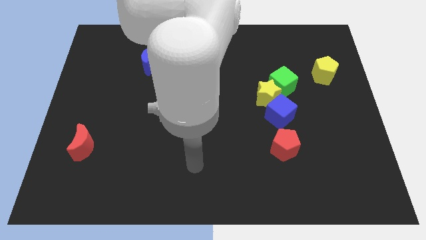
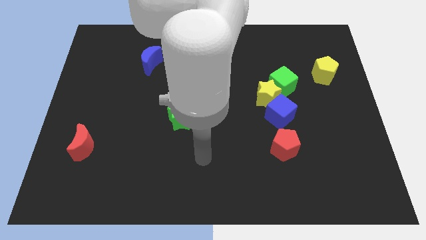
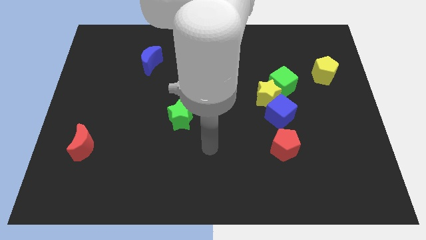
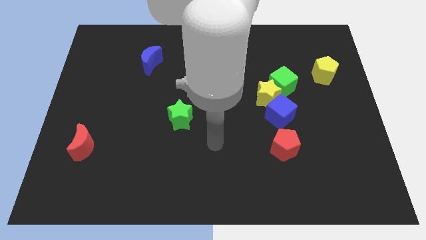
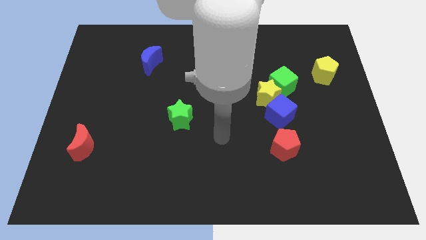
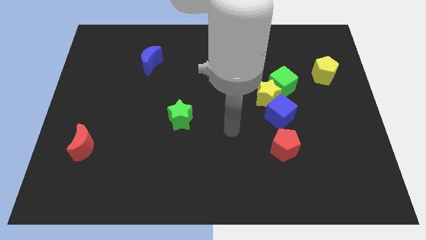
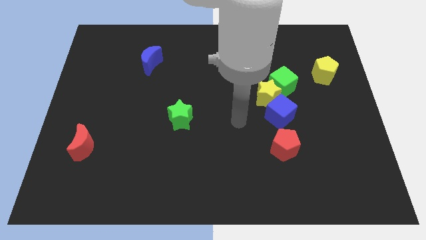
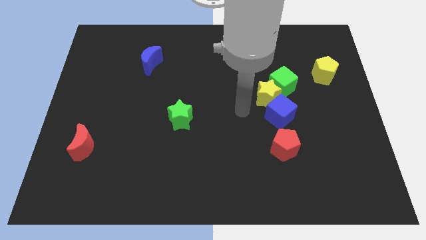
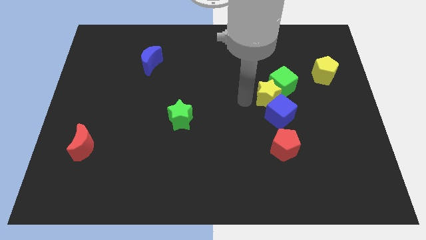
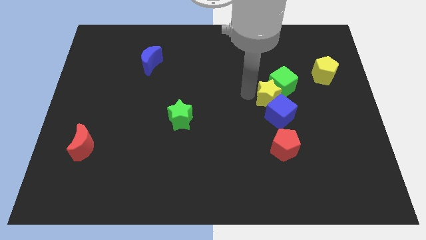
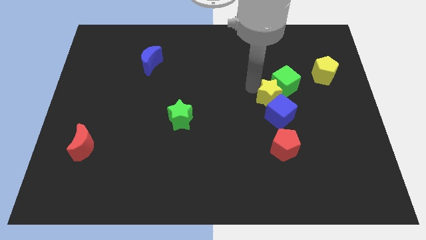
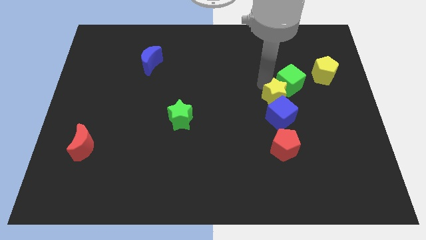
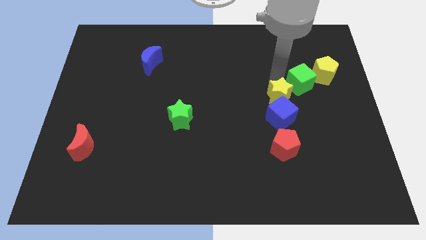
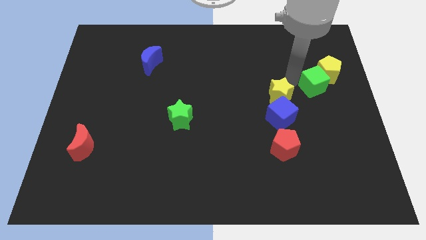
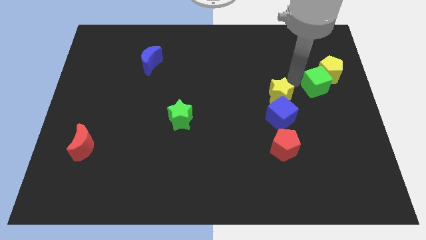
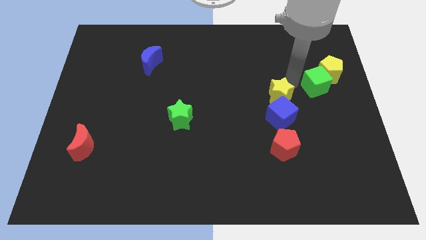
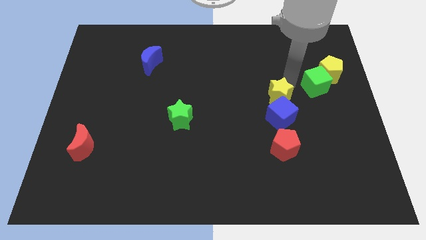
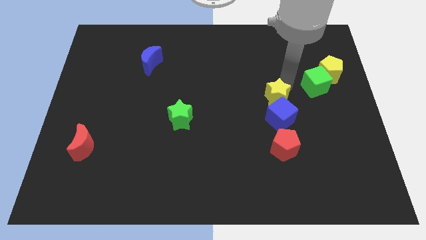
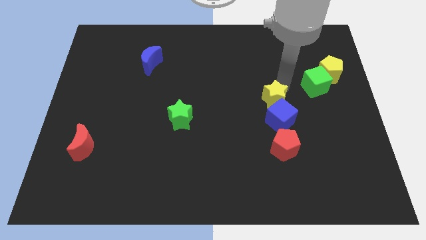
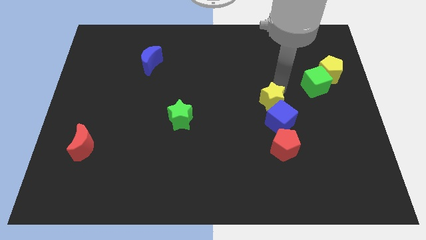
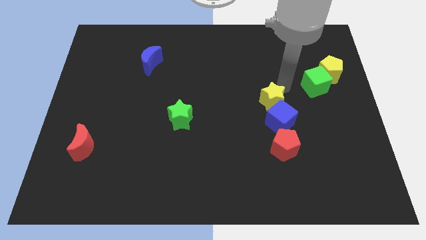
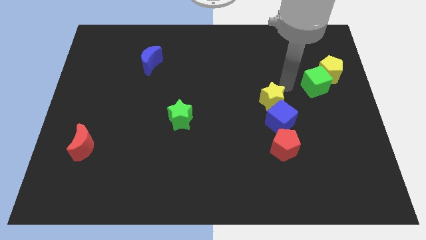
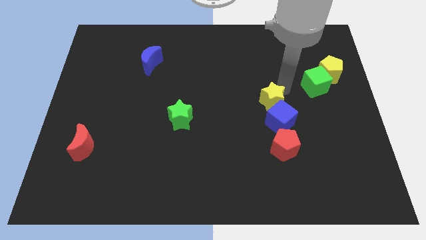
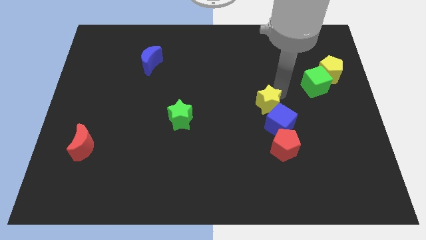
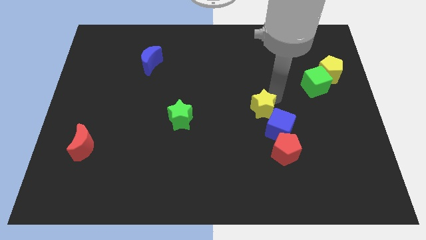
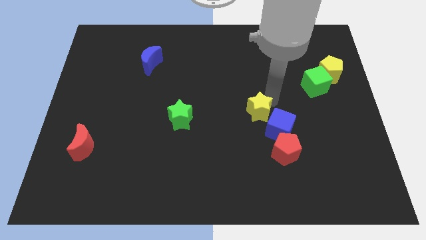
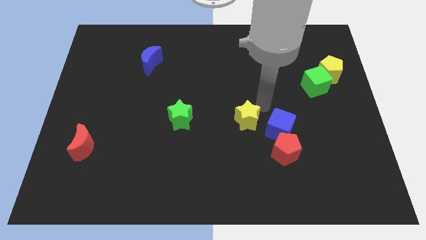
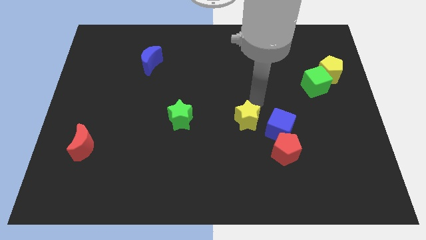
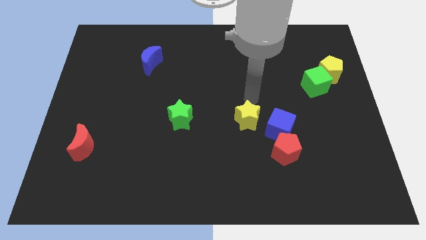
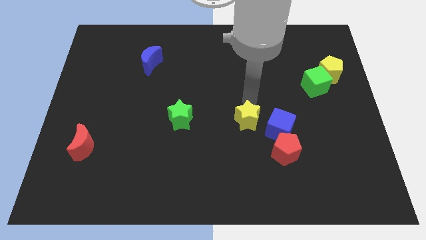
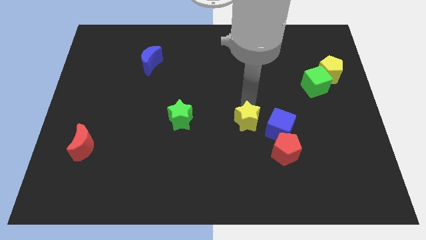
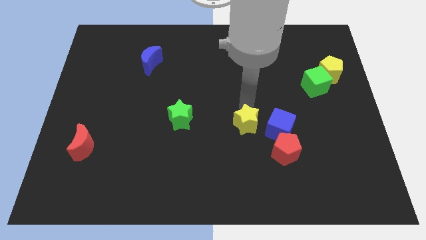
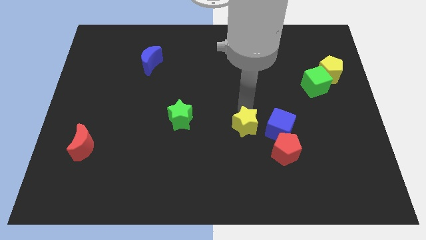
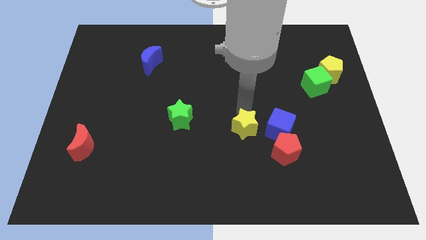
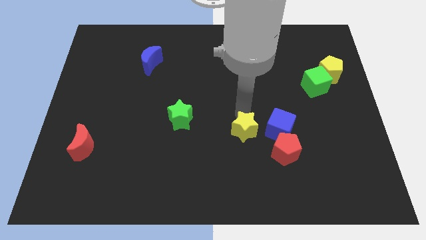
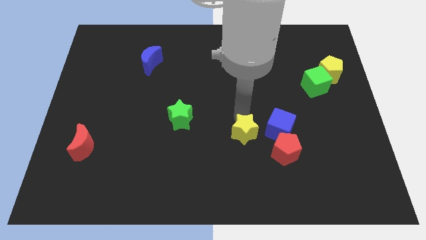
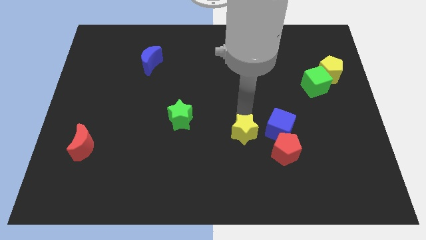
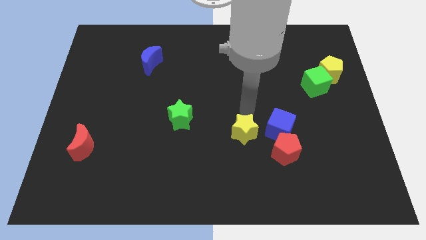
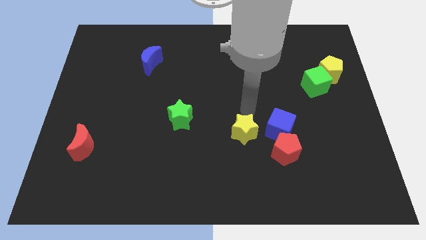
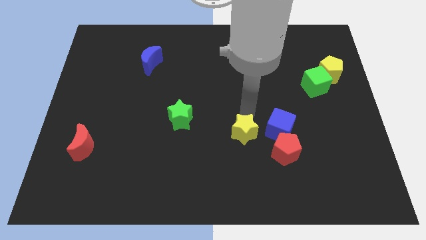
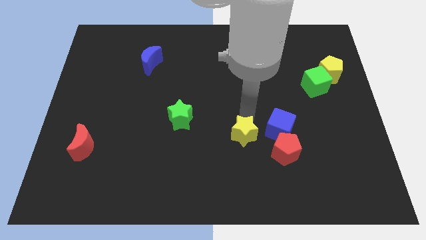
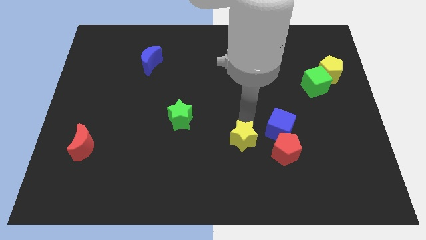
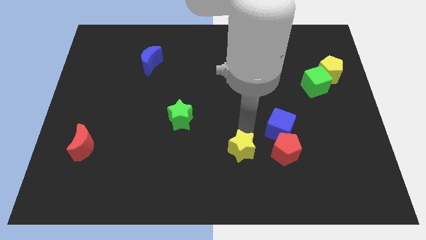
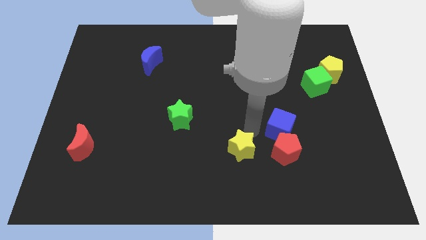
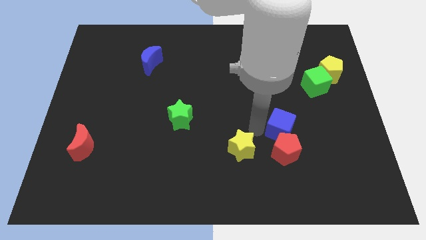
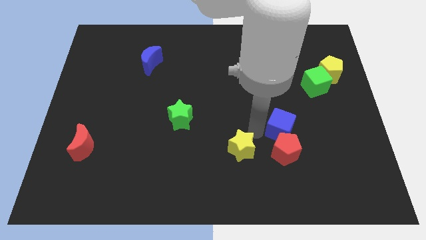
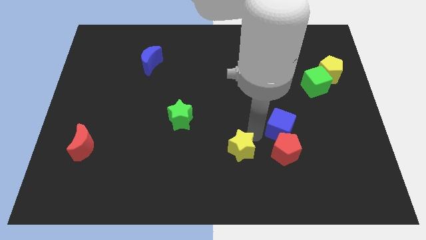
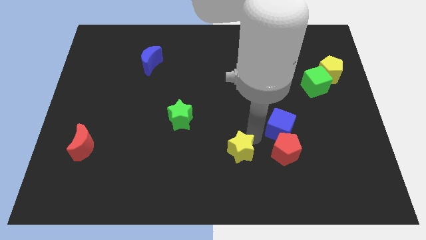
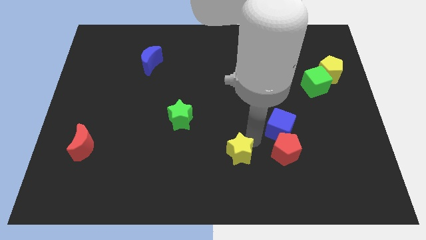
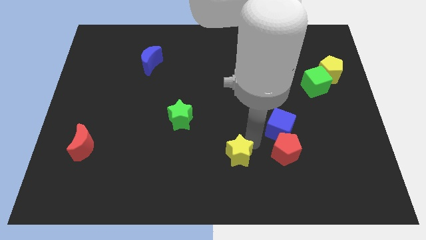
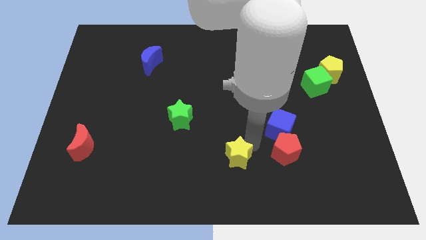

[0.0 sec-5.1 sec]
put the yellow star to the bottom

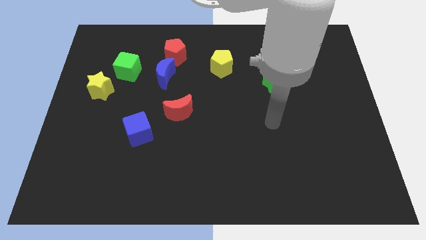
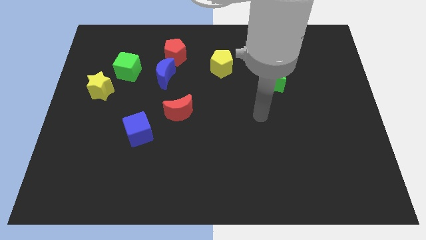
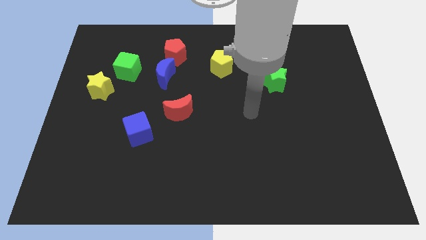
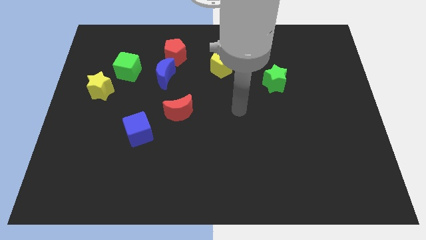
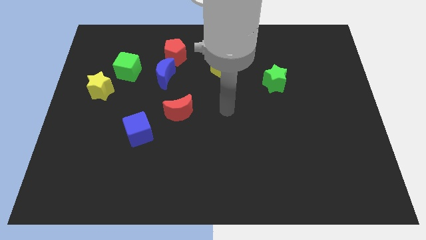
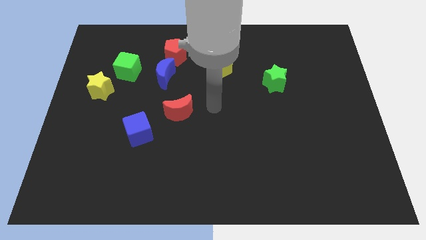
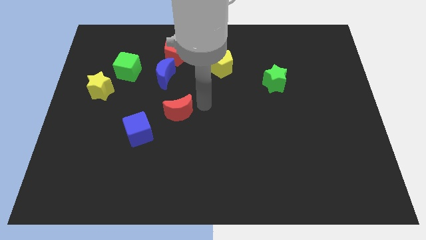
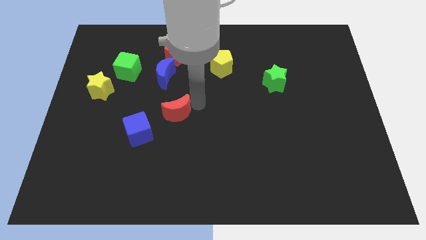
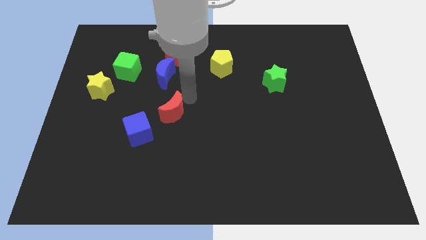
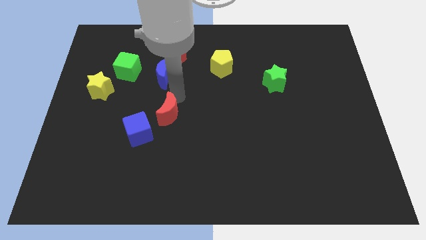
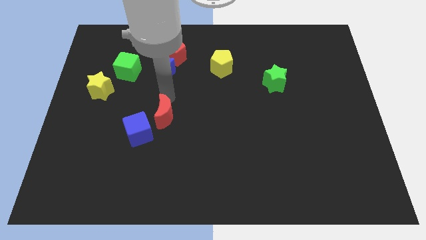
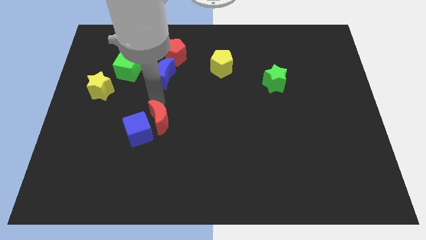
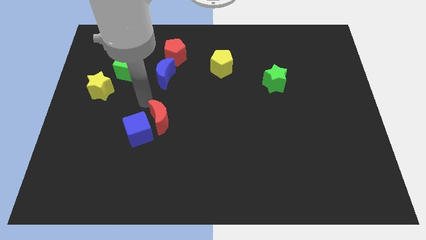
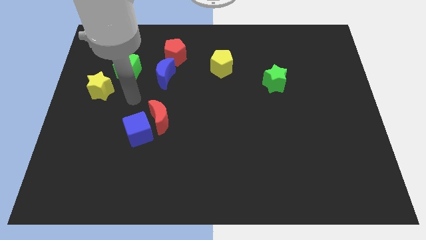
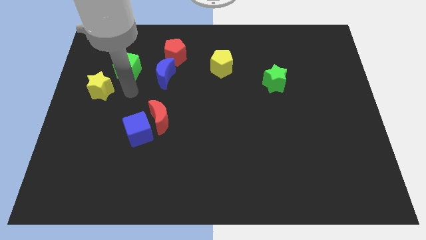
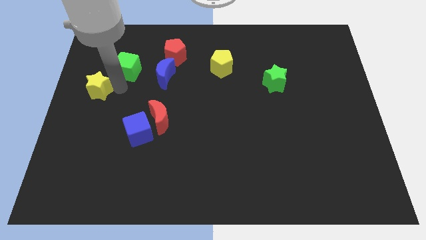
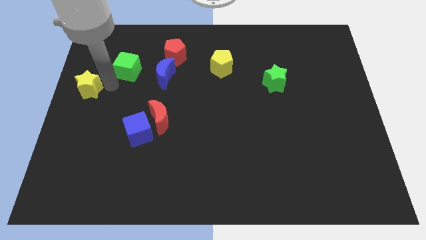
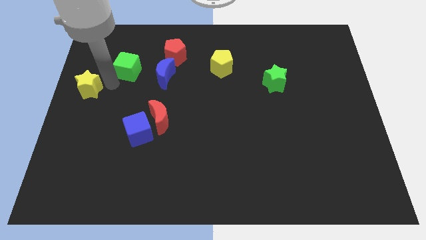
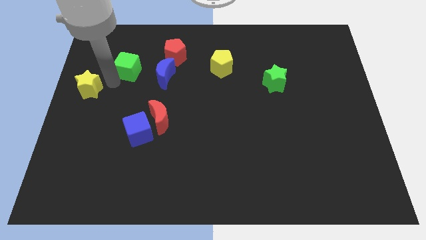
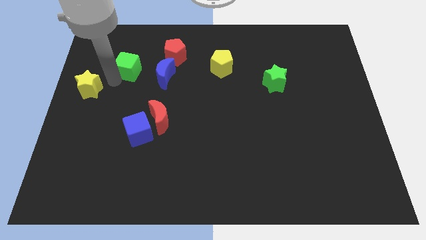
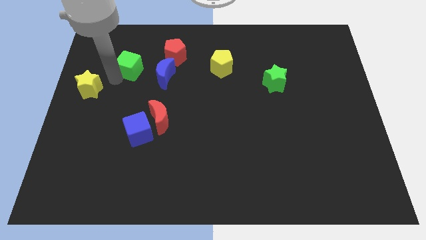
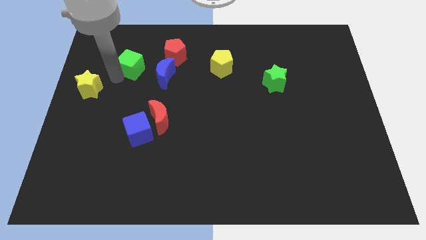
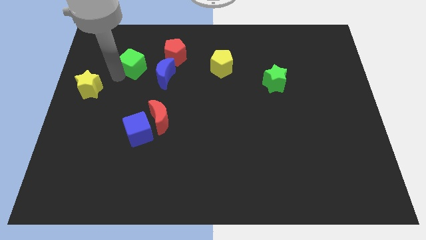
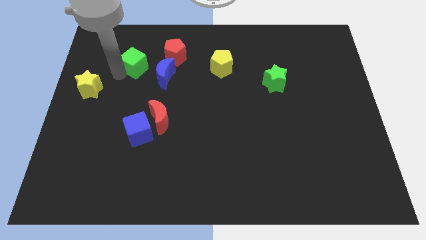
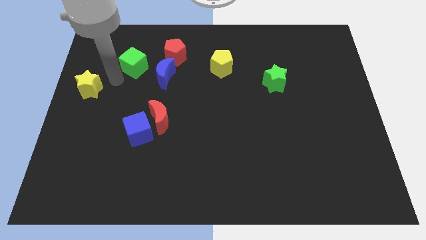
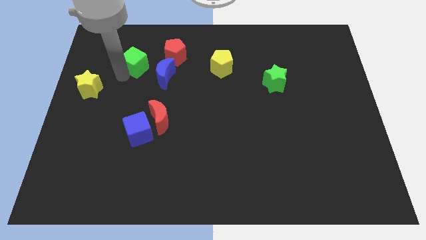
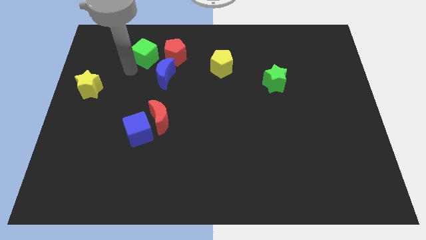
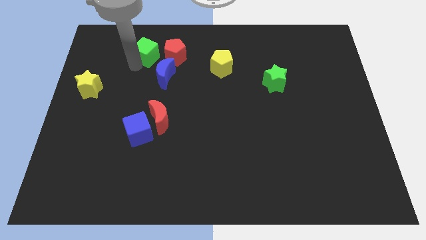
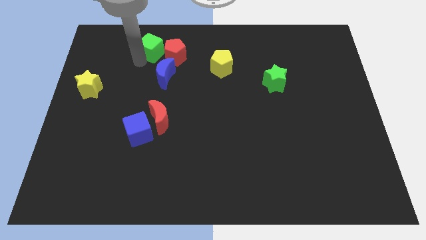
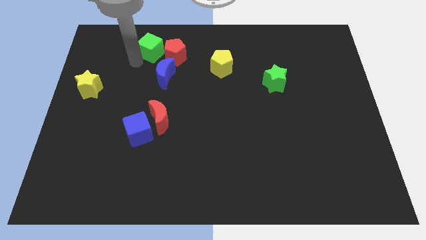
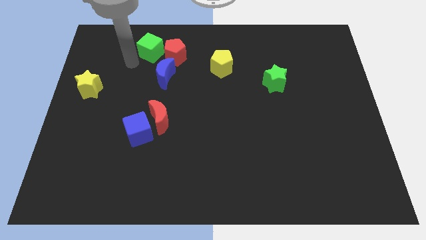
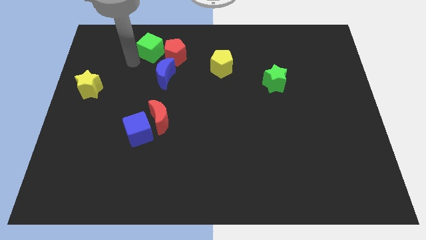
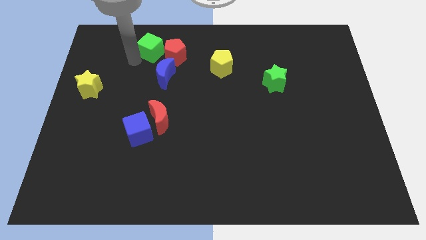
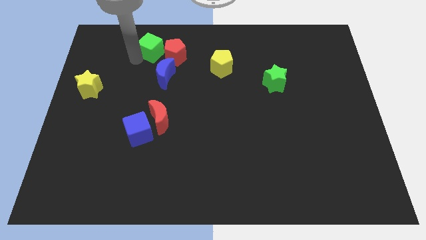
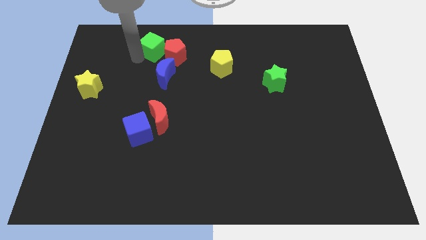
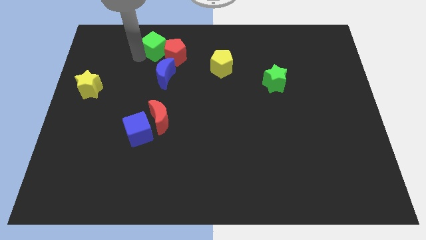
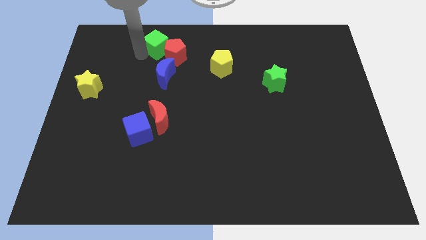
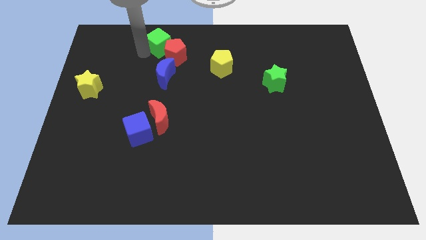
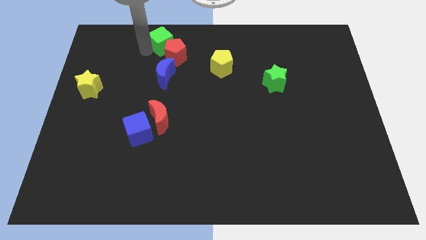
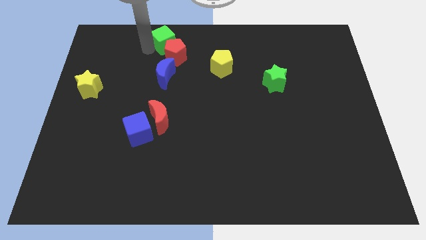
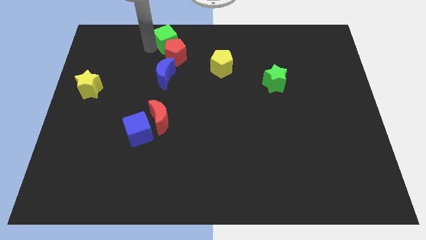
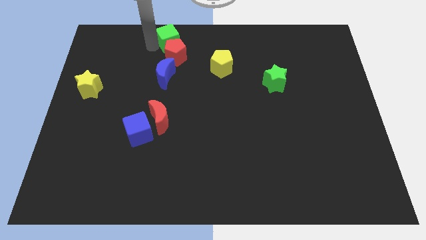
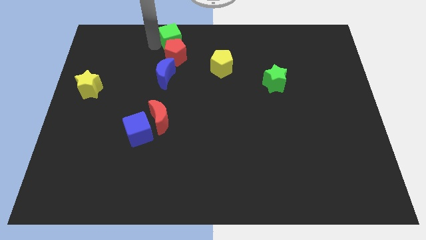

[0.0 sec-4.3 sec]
slide the green cube to the top
